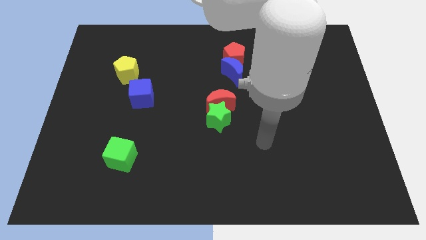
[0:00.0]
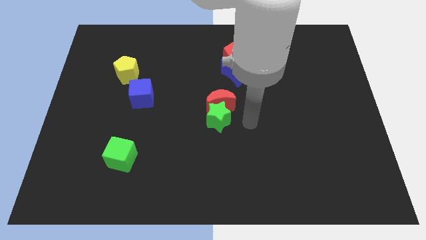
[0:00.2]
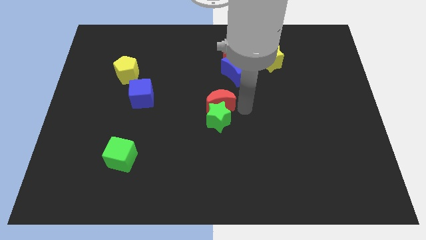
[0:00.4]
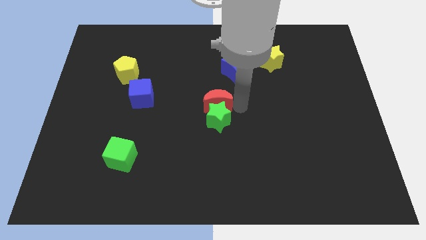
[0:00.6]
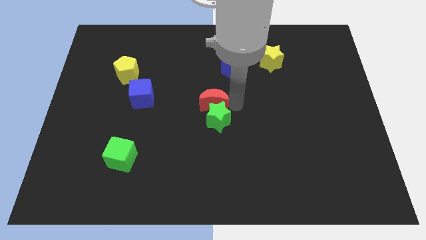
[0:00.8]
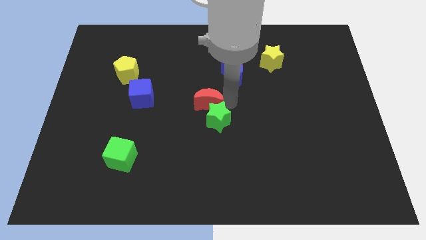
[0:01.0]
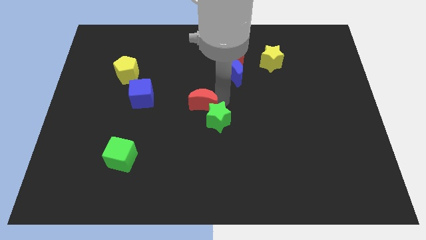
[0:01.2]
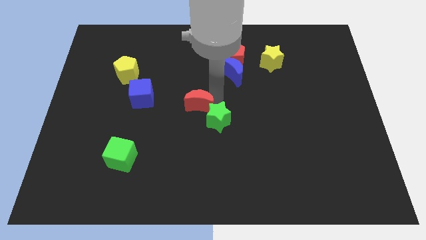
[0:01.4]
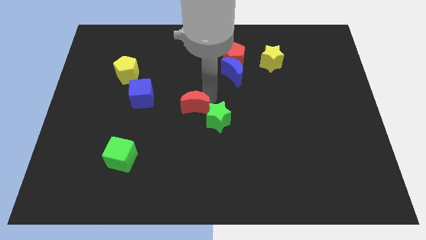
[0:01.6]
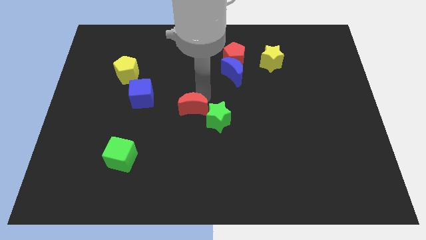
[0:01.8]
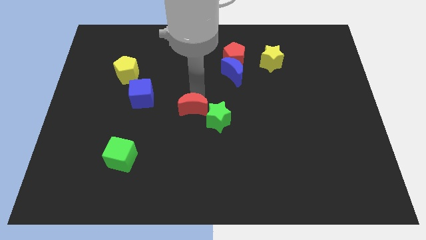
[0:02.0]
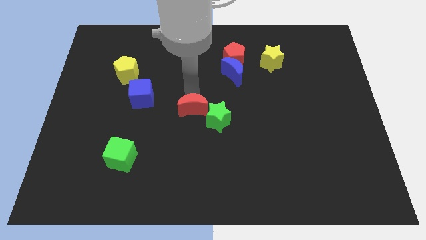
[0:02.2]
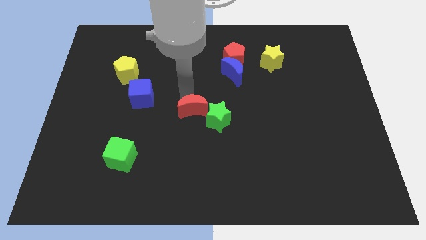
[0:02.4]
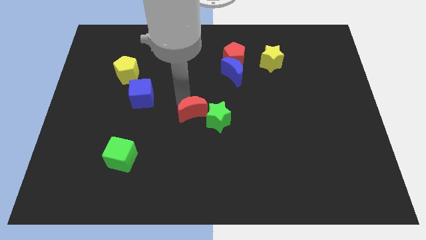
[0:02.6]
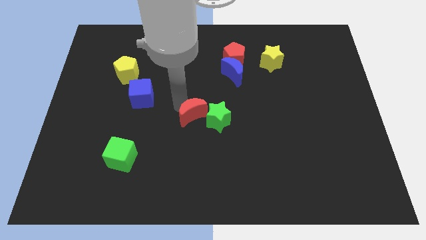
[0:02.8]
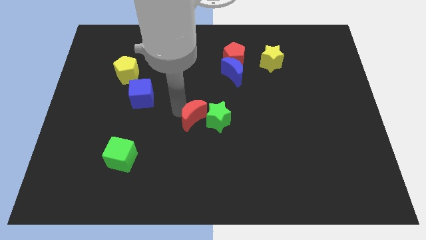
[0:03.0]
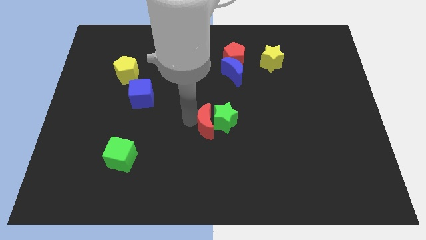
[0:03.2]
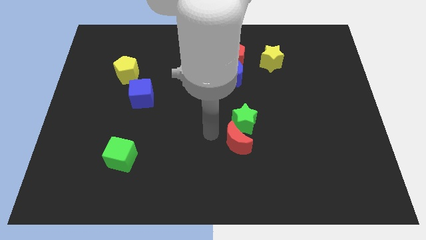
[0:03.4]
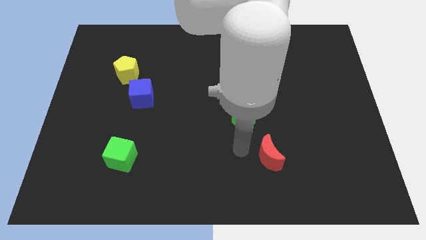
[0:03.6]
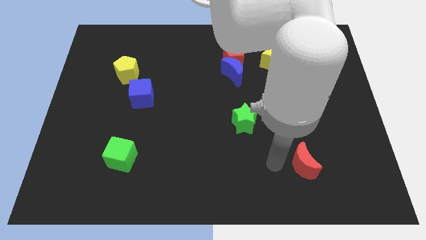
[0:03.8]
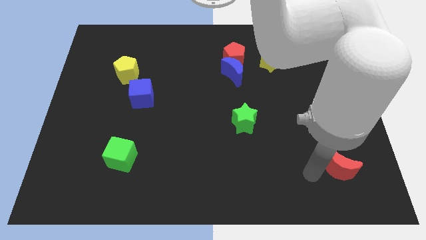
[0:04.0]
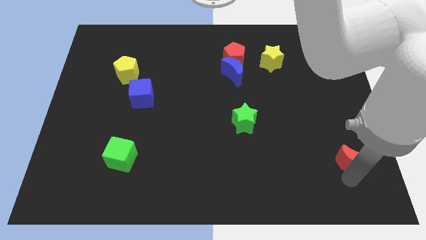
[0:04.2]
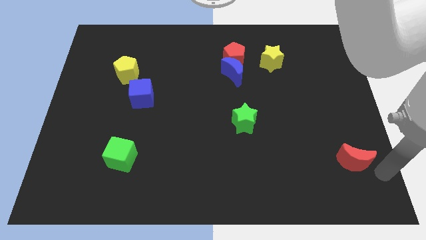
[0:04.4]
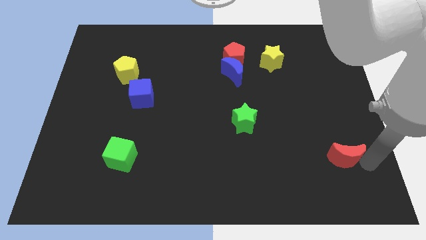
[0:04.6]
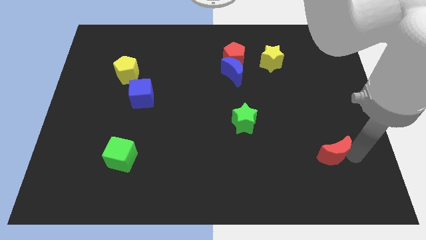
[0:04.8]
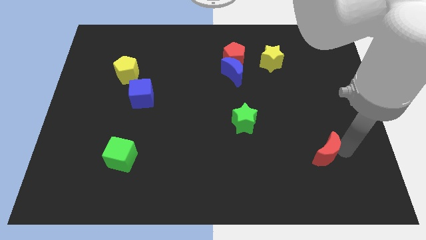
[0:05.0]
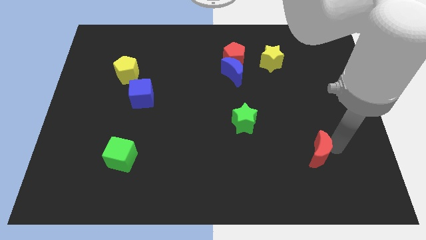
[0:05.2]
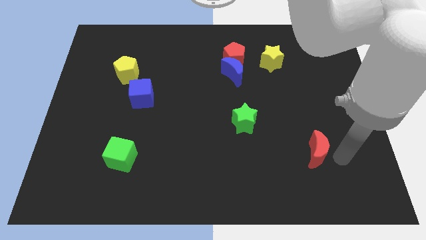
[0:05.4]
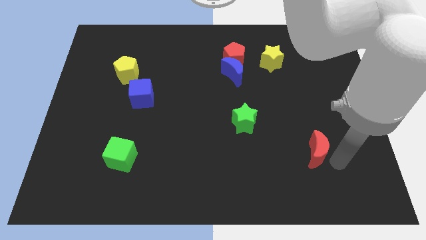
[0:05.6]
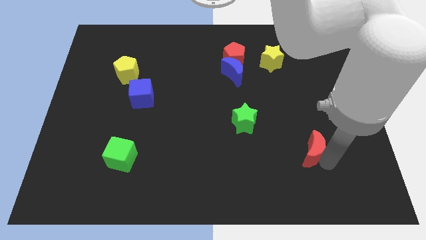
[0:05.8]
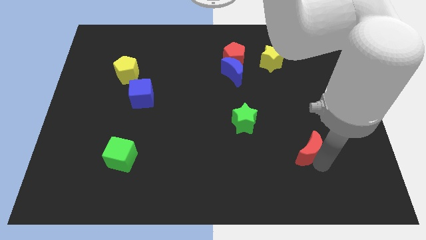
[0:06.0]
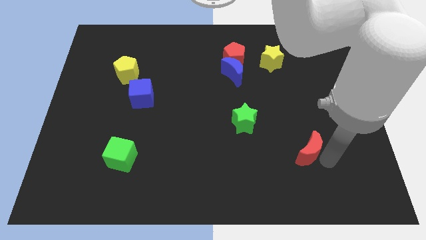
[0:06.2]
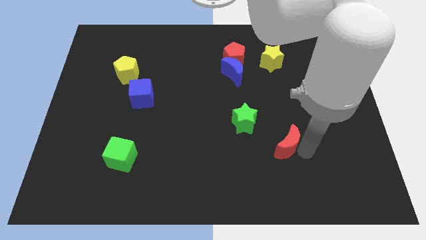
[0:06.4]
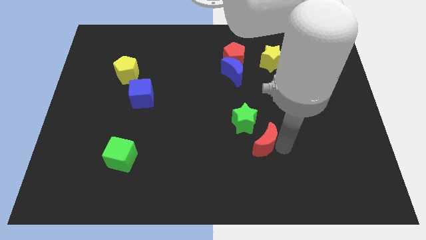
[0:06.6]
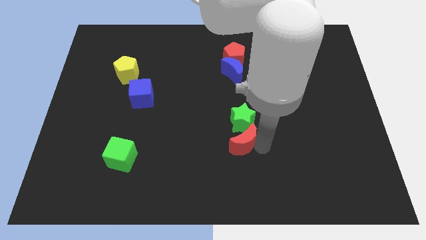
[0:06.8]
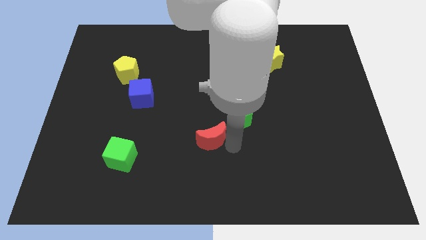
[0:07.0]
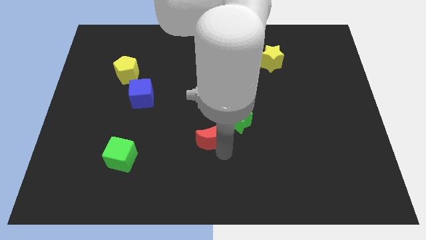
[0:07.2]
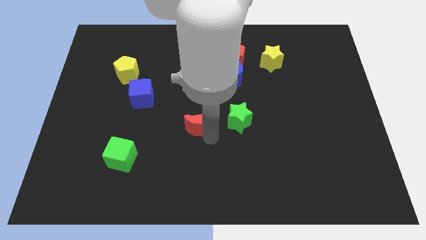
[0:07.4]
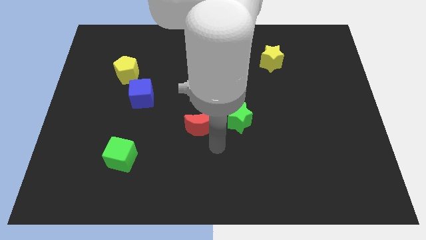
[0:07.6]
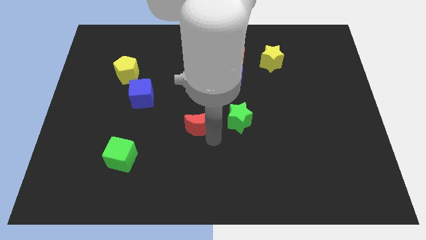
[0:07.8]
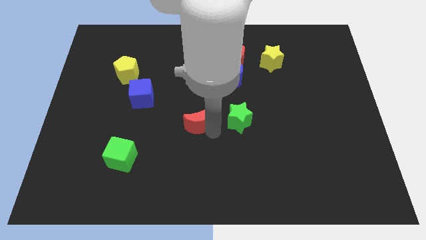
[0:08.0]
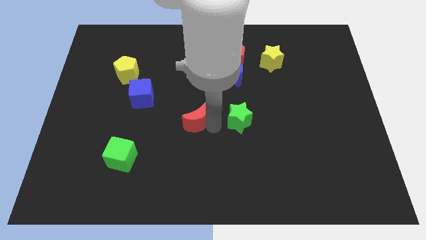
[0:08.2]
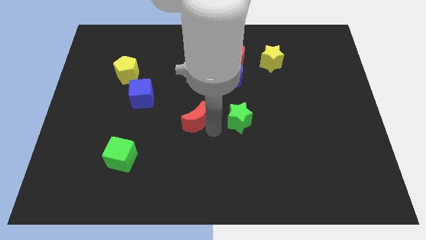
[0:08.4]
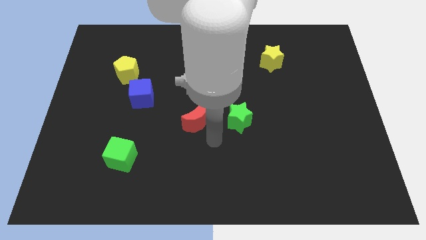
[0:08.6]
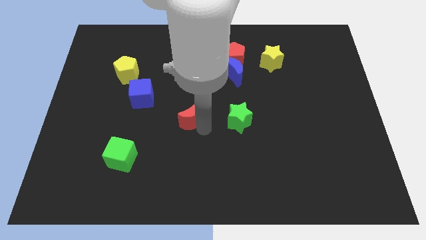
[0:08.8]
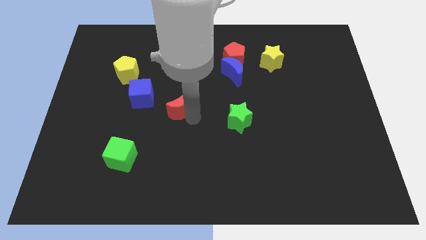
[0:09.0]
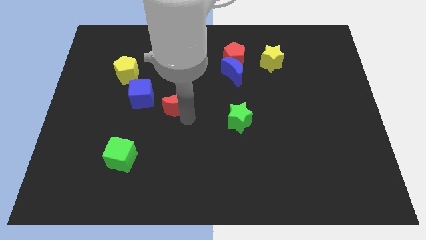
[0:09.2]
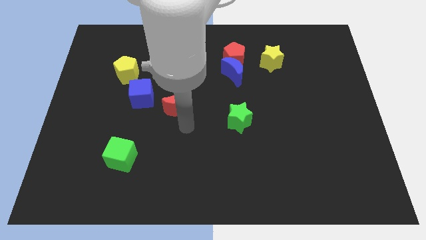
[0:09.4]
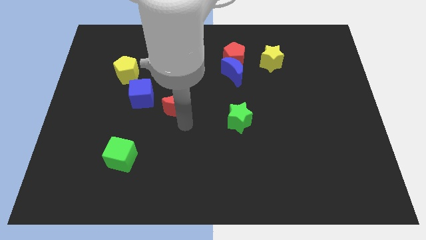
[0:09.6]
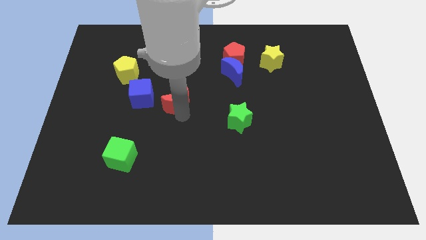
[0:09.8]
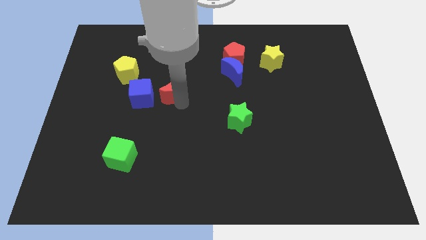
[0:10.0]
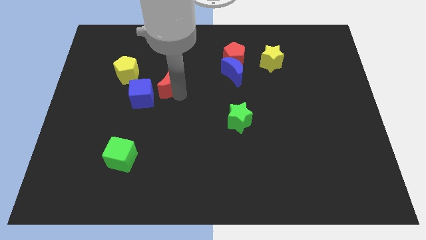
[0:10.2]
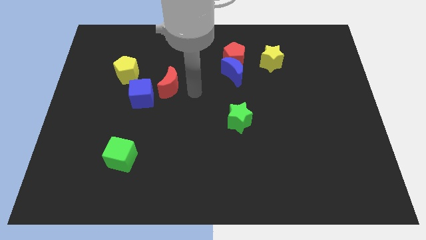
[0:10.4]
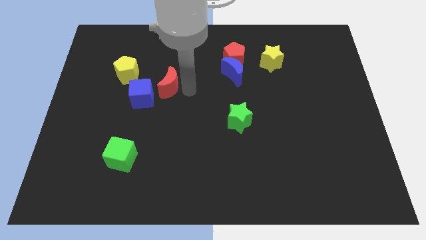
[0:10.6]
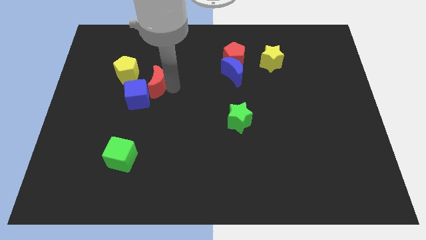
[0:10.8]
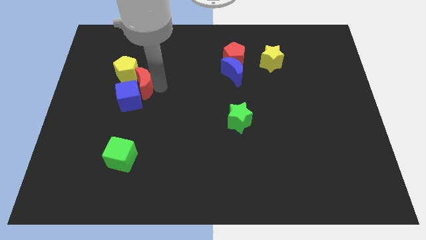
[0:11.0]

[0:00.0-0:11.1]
move the red moon next to the yellow pentagon

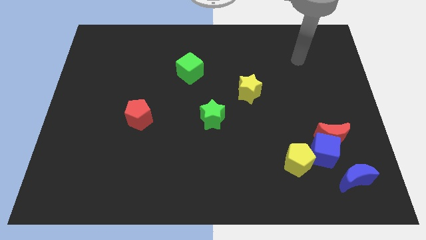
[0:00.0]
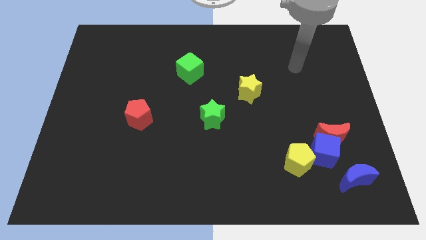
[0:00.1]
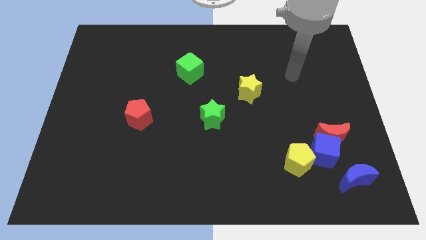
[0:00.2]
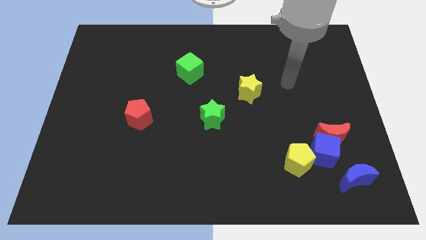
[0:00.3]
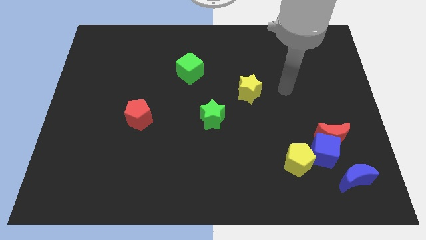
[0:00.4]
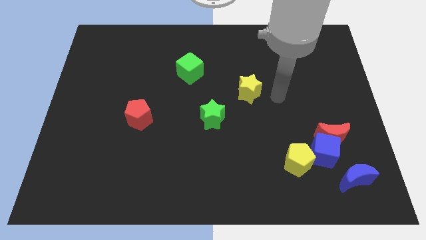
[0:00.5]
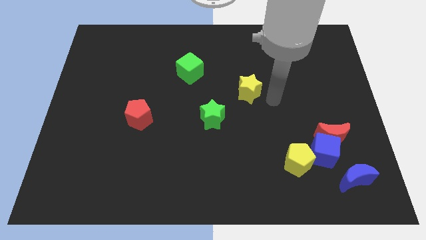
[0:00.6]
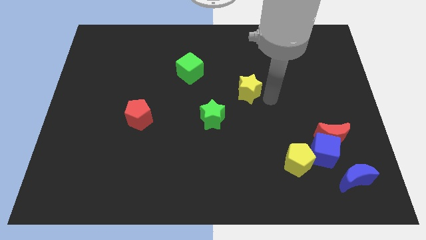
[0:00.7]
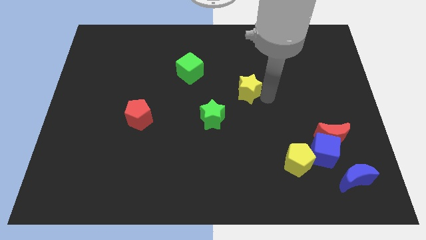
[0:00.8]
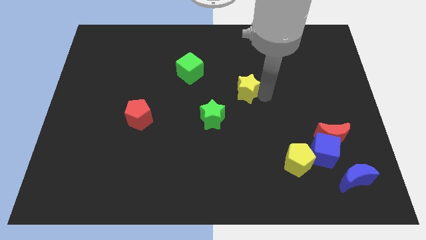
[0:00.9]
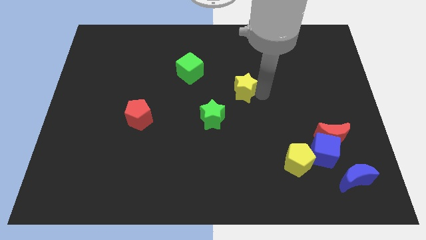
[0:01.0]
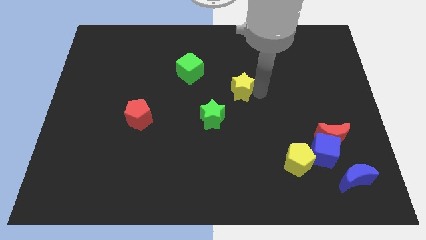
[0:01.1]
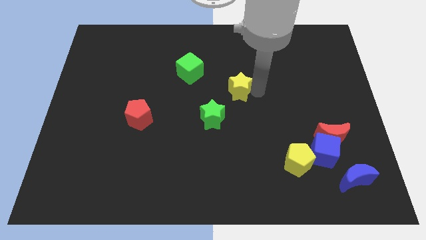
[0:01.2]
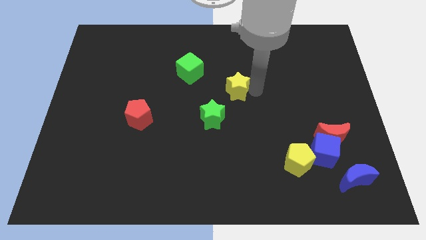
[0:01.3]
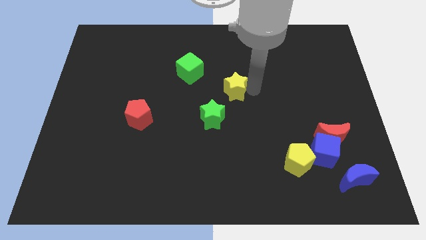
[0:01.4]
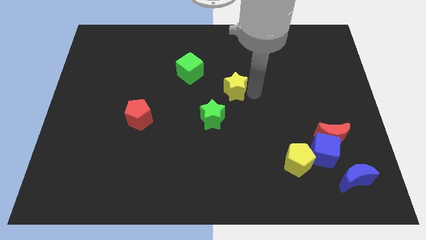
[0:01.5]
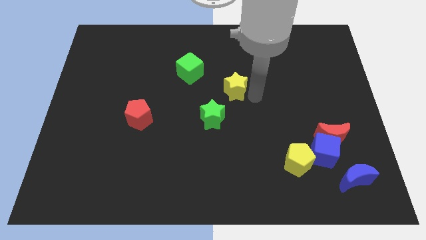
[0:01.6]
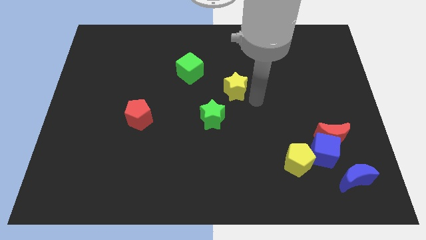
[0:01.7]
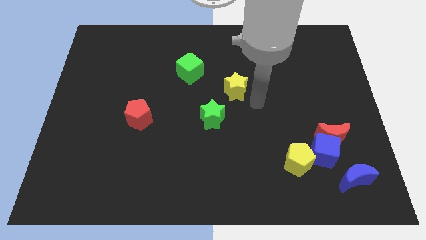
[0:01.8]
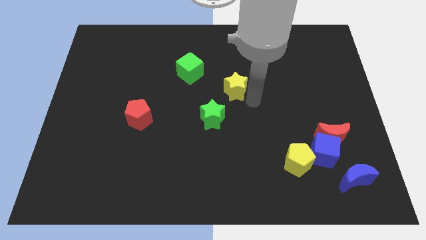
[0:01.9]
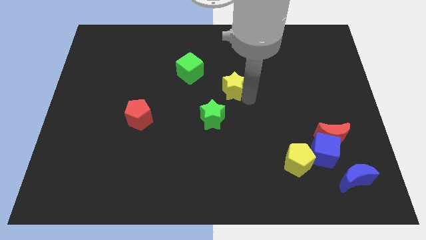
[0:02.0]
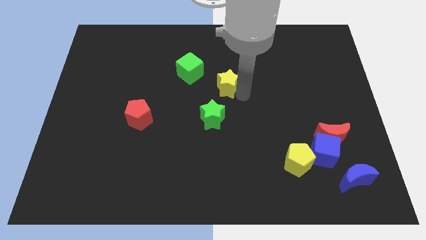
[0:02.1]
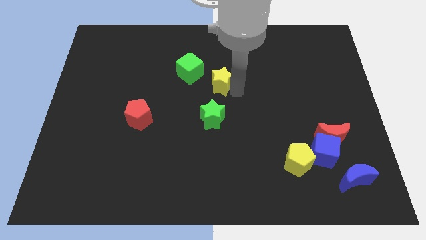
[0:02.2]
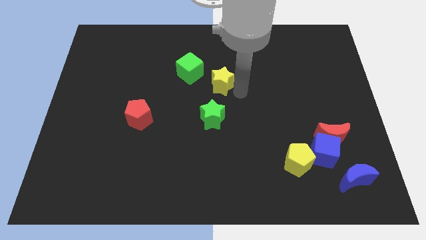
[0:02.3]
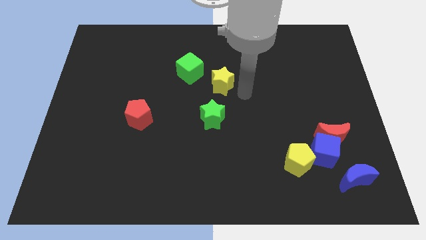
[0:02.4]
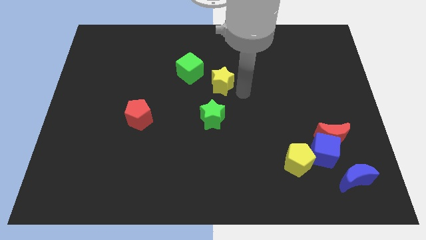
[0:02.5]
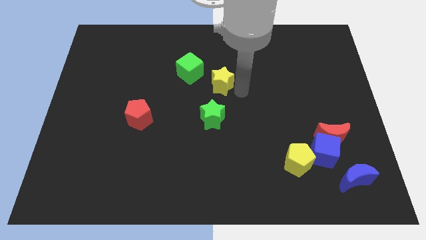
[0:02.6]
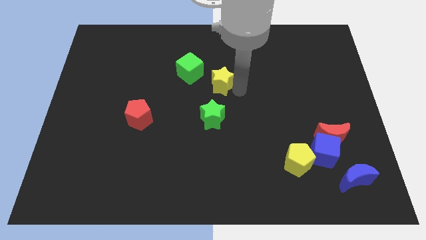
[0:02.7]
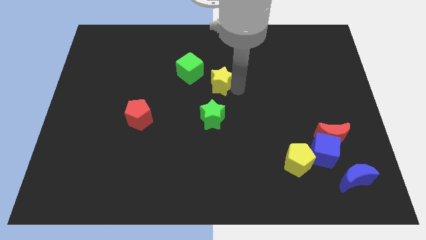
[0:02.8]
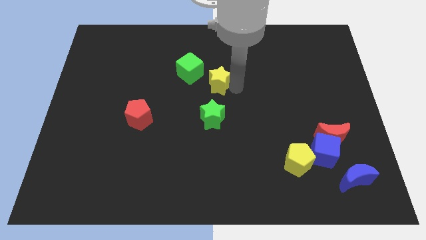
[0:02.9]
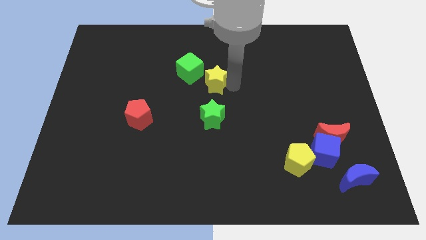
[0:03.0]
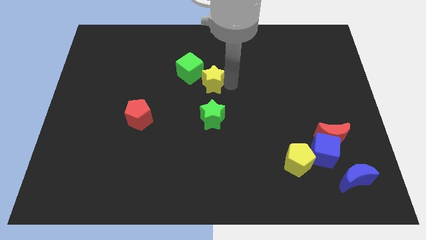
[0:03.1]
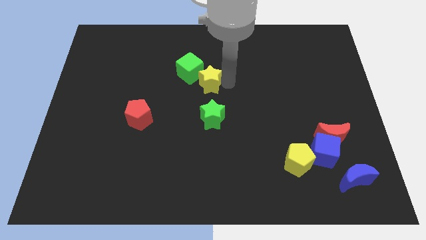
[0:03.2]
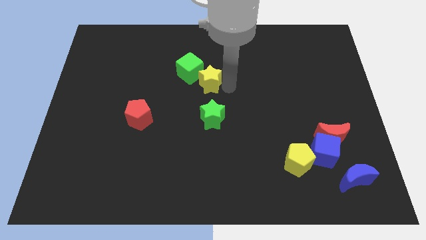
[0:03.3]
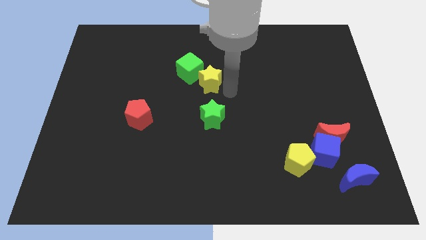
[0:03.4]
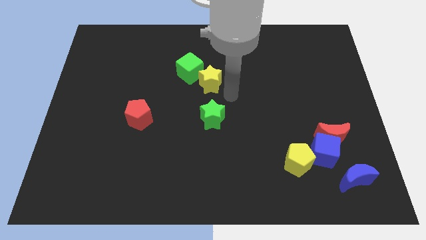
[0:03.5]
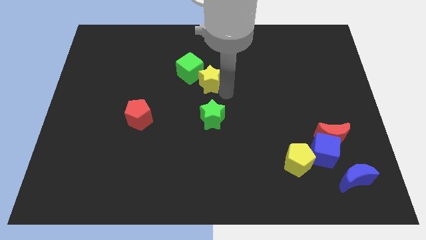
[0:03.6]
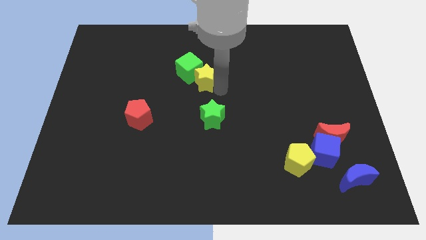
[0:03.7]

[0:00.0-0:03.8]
put the yellow star to the green cube
